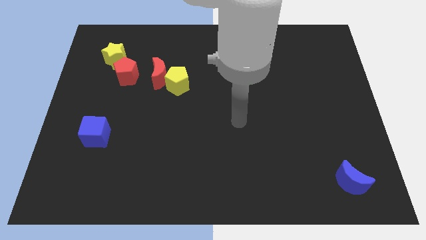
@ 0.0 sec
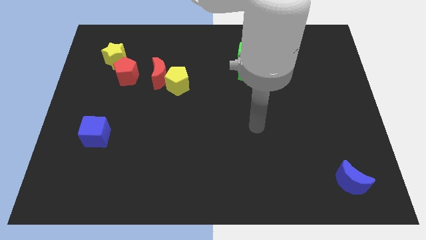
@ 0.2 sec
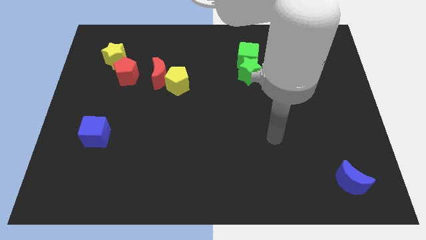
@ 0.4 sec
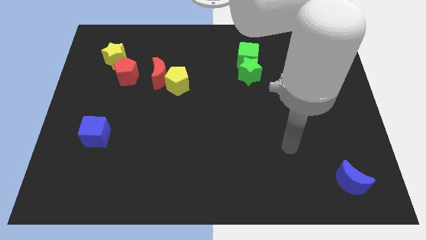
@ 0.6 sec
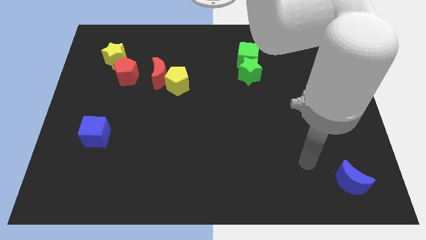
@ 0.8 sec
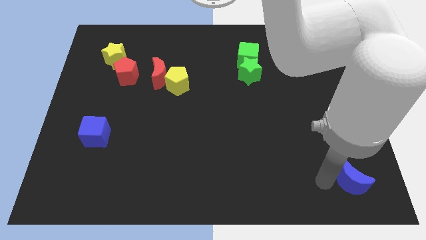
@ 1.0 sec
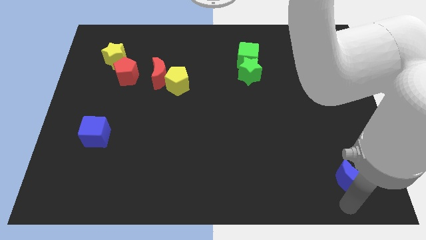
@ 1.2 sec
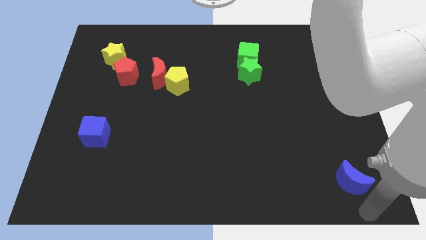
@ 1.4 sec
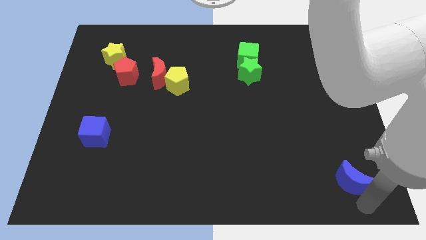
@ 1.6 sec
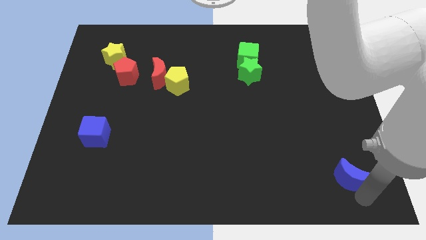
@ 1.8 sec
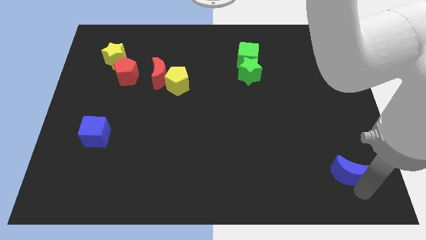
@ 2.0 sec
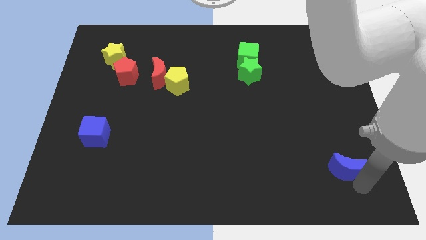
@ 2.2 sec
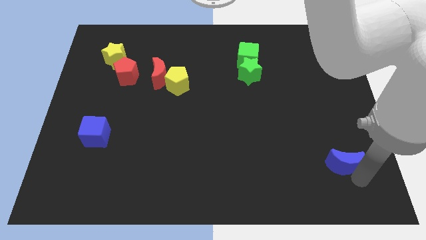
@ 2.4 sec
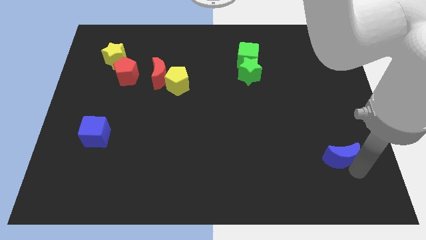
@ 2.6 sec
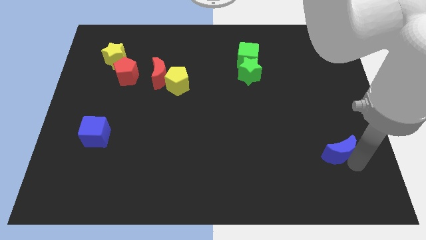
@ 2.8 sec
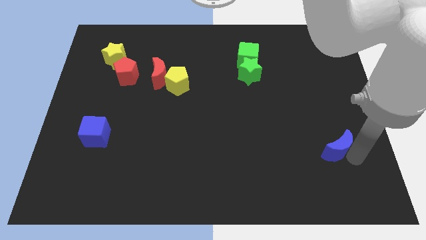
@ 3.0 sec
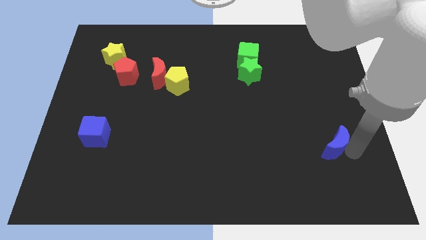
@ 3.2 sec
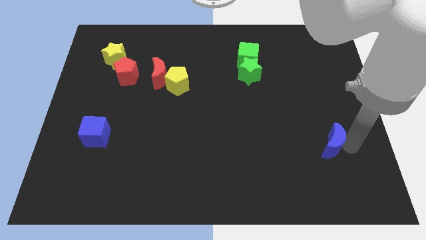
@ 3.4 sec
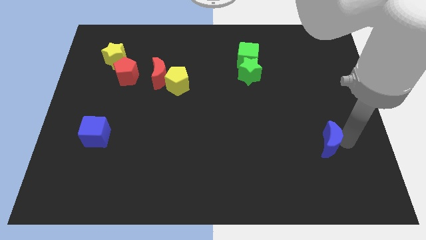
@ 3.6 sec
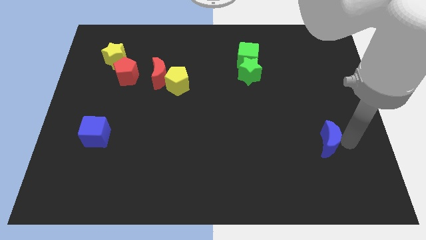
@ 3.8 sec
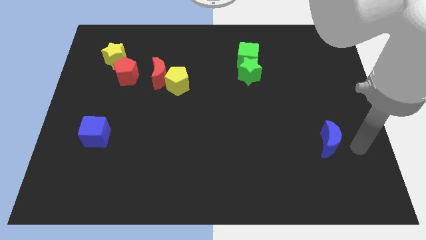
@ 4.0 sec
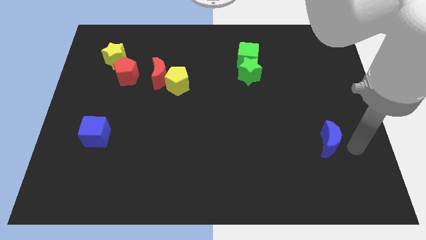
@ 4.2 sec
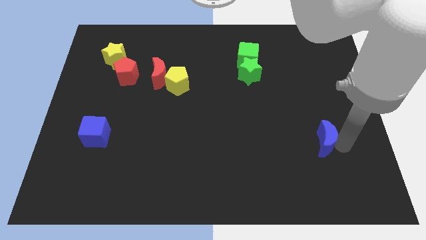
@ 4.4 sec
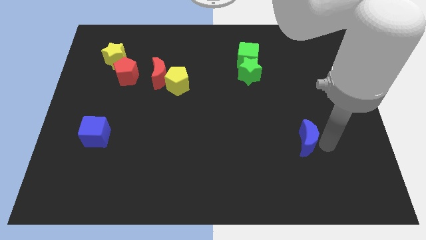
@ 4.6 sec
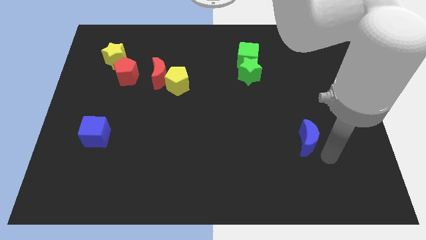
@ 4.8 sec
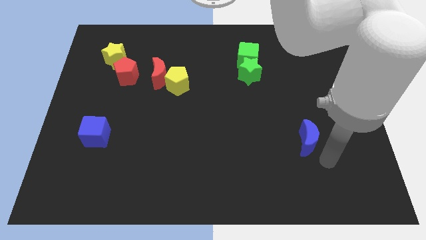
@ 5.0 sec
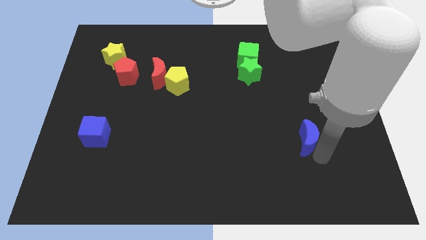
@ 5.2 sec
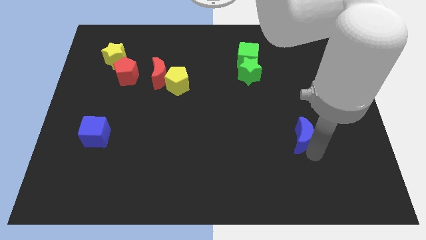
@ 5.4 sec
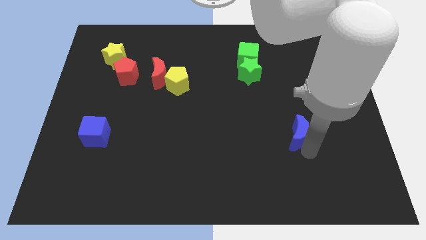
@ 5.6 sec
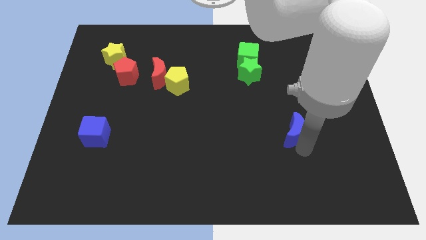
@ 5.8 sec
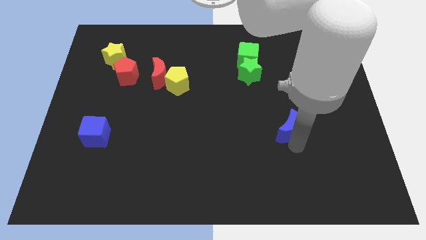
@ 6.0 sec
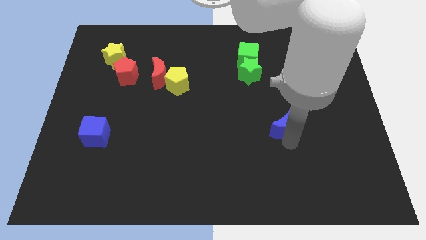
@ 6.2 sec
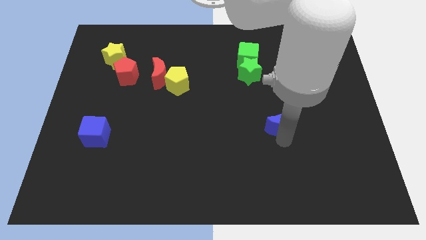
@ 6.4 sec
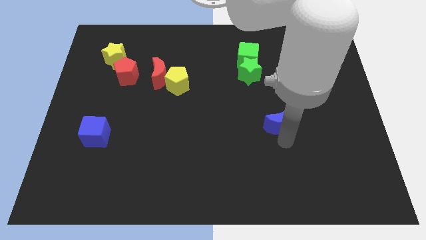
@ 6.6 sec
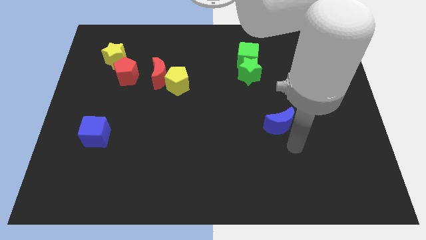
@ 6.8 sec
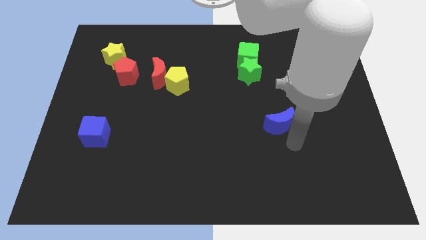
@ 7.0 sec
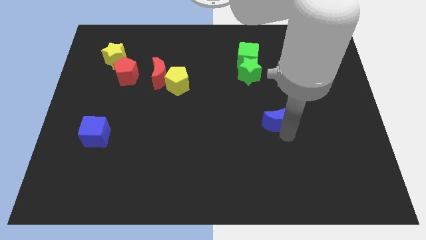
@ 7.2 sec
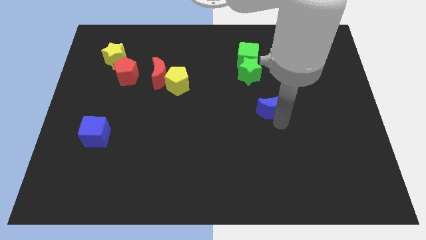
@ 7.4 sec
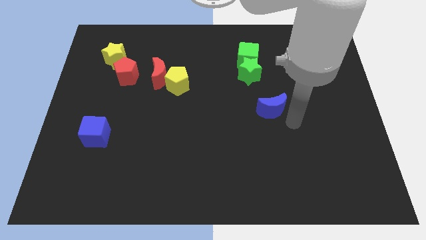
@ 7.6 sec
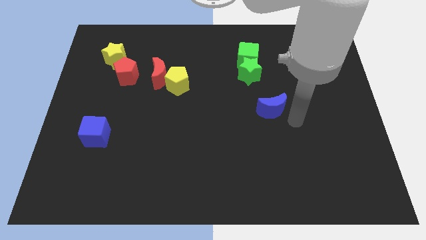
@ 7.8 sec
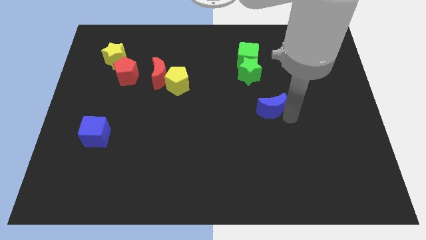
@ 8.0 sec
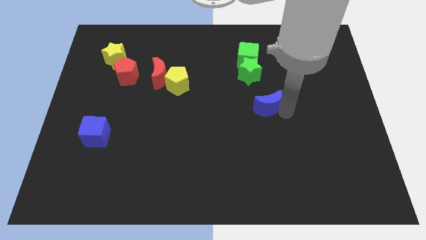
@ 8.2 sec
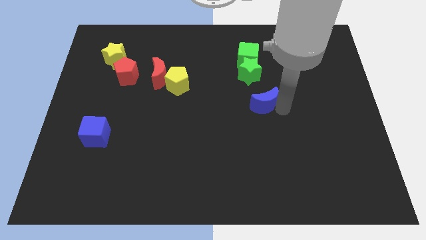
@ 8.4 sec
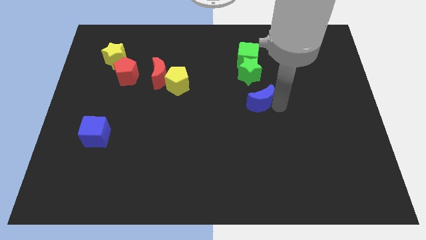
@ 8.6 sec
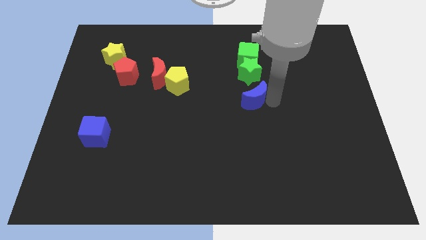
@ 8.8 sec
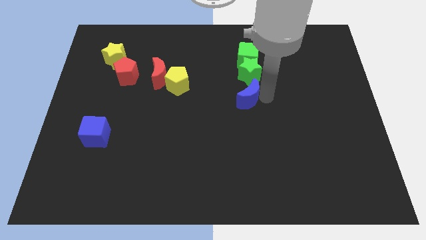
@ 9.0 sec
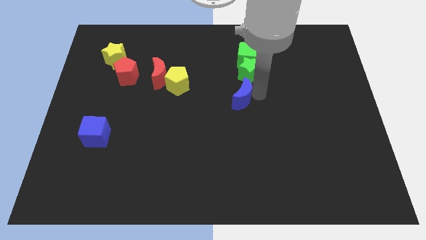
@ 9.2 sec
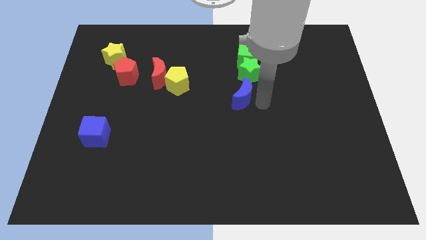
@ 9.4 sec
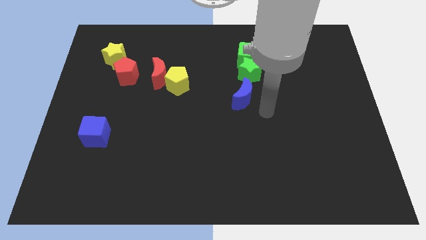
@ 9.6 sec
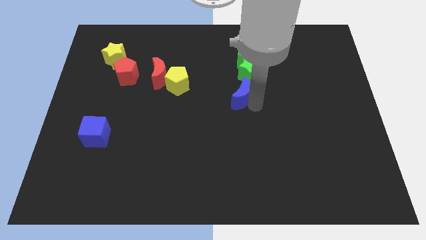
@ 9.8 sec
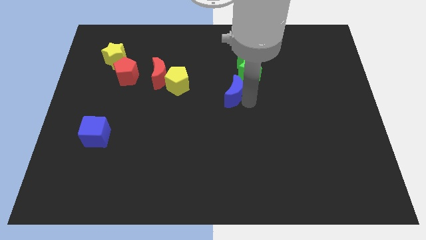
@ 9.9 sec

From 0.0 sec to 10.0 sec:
push the blue moon to the right side of the yellow pentagon

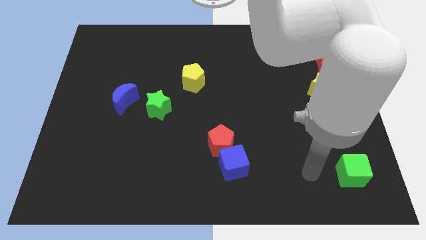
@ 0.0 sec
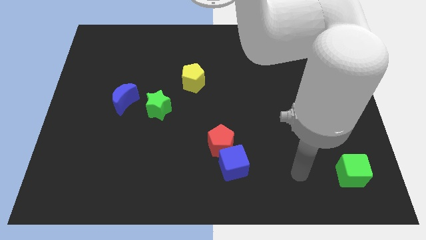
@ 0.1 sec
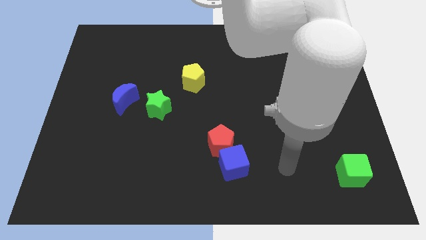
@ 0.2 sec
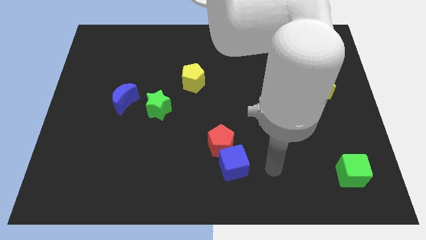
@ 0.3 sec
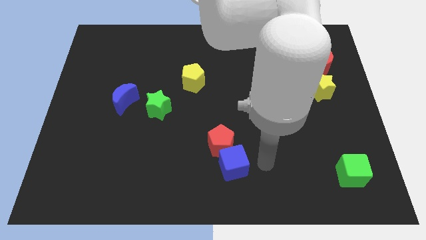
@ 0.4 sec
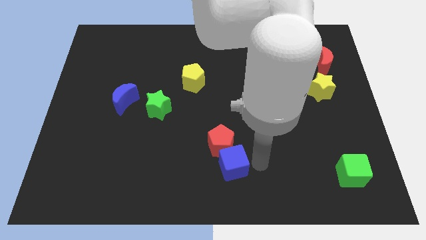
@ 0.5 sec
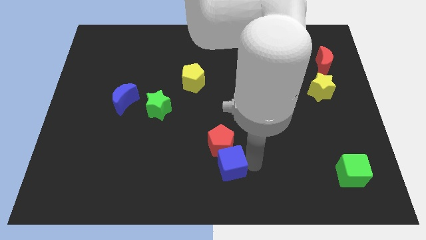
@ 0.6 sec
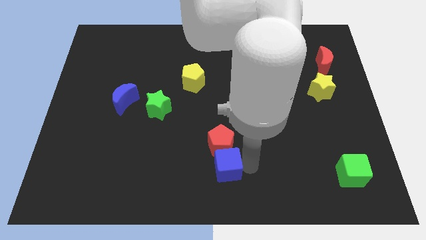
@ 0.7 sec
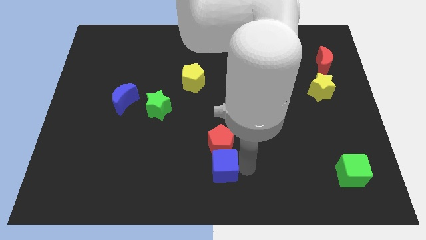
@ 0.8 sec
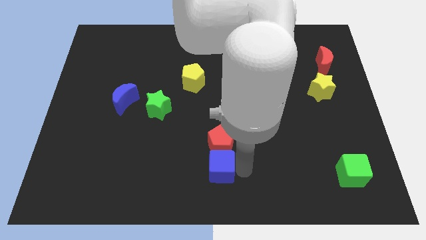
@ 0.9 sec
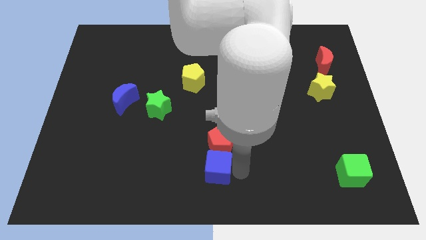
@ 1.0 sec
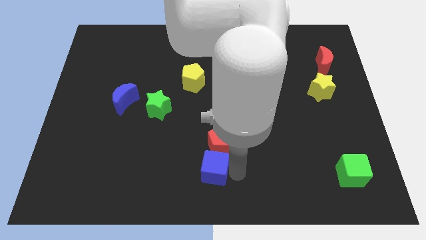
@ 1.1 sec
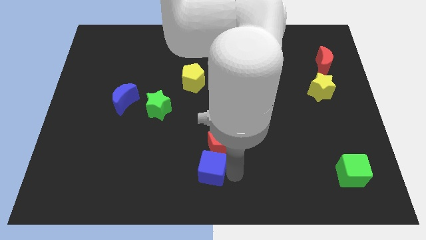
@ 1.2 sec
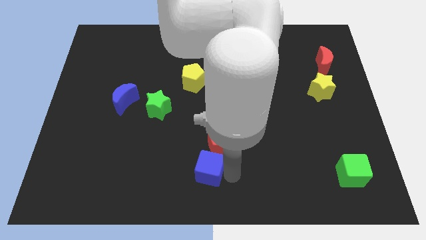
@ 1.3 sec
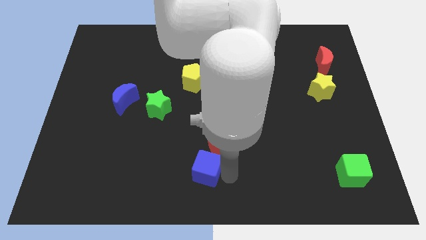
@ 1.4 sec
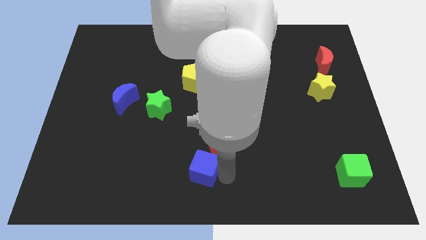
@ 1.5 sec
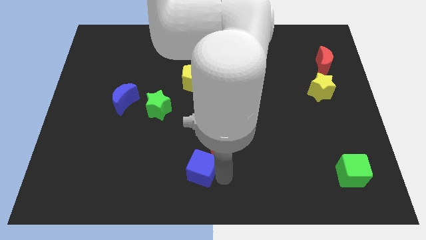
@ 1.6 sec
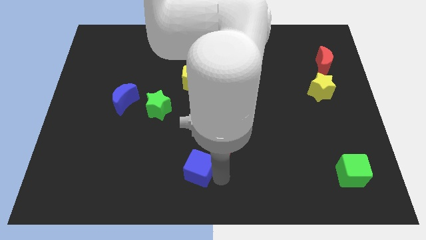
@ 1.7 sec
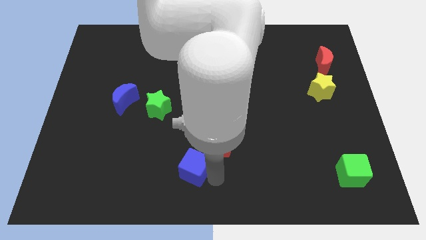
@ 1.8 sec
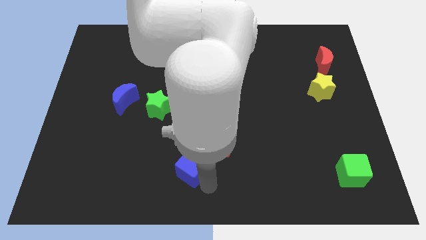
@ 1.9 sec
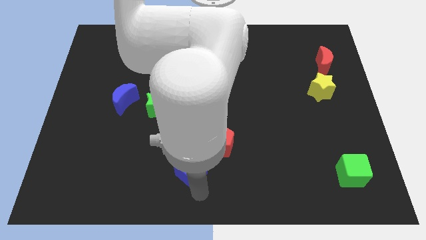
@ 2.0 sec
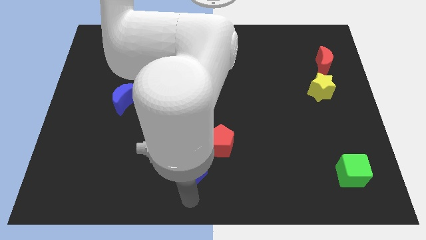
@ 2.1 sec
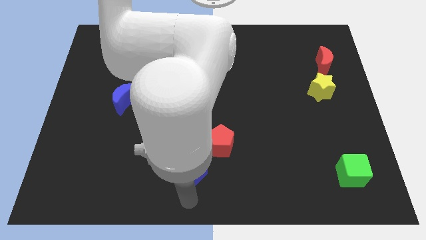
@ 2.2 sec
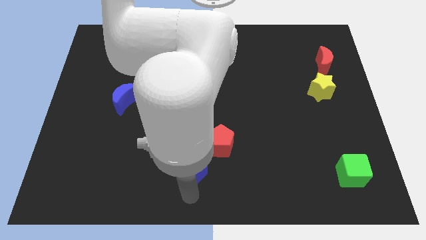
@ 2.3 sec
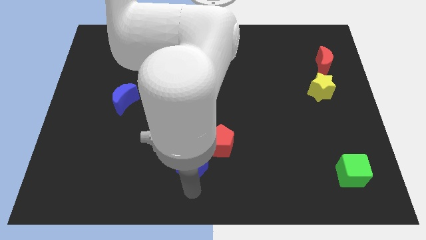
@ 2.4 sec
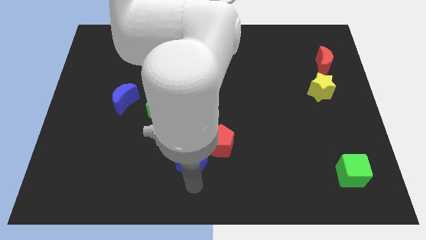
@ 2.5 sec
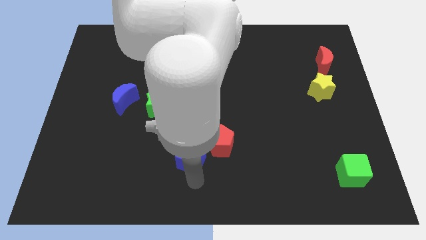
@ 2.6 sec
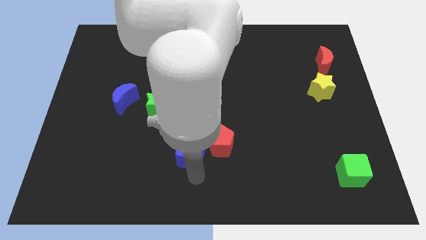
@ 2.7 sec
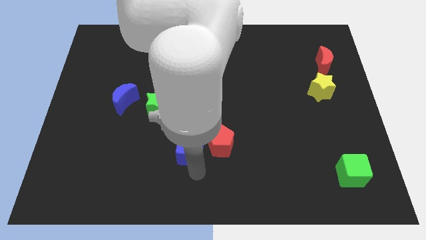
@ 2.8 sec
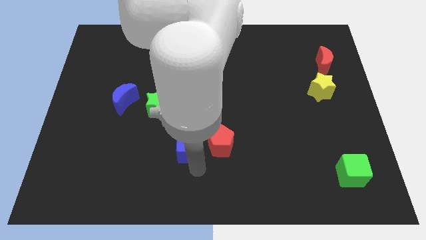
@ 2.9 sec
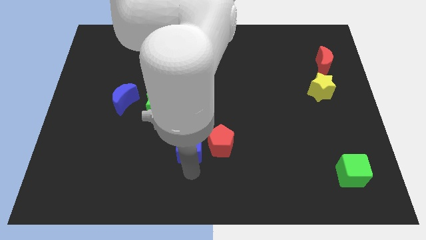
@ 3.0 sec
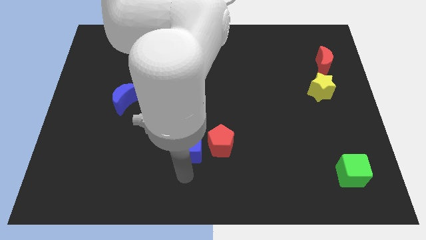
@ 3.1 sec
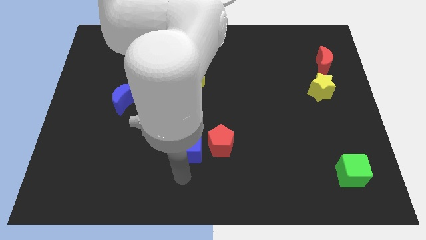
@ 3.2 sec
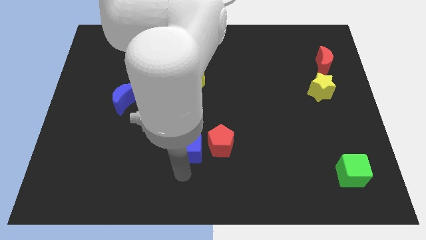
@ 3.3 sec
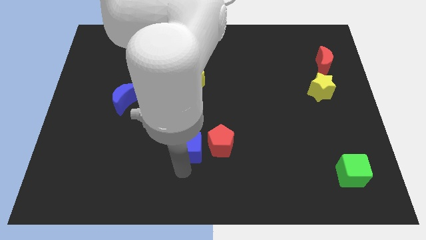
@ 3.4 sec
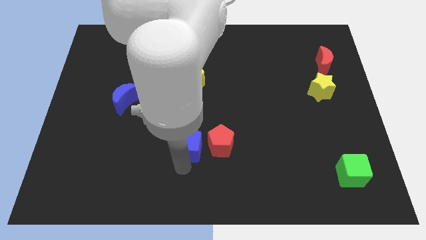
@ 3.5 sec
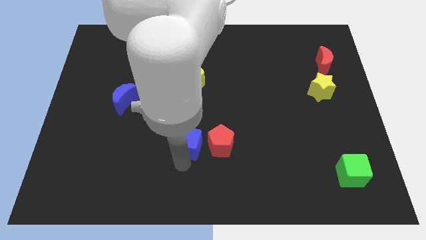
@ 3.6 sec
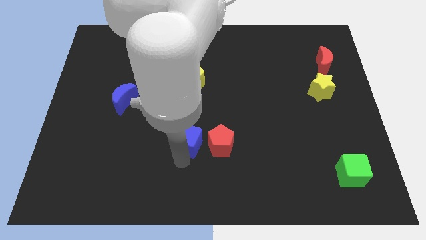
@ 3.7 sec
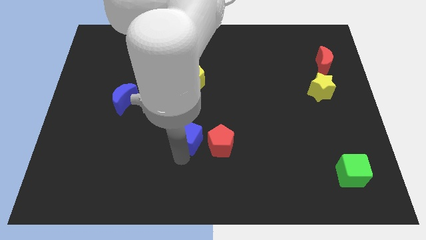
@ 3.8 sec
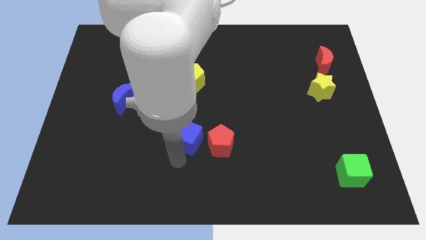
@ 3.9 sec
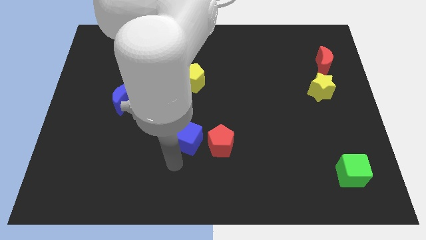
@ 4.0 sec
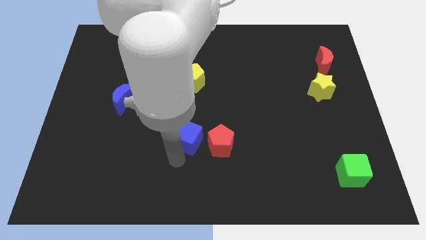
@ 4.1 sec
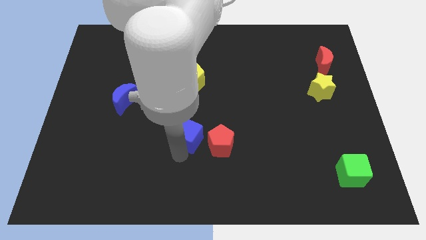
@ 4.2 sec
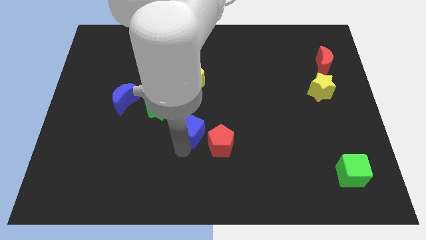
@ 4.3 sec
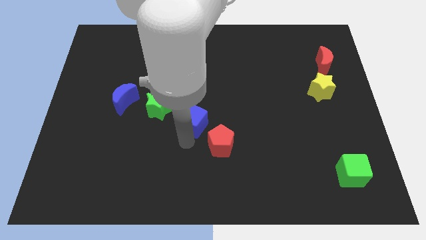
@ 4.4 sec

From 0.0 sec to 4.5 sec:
push the blue cube to the right of the green star
